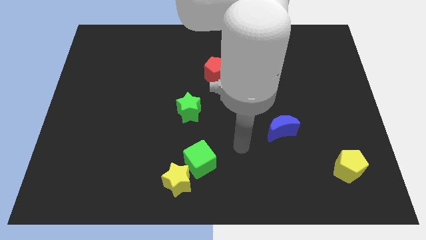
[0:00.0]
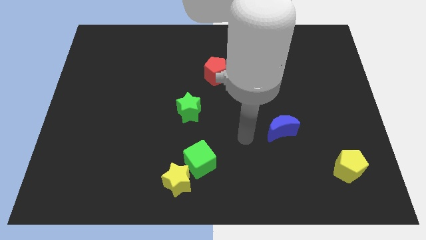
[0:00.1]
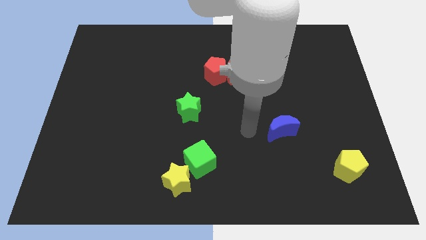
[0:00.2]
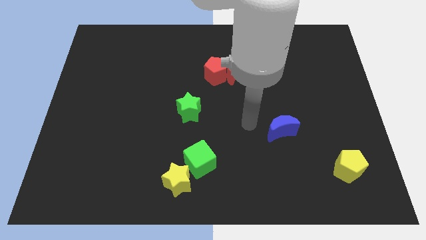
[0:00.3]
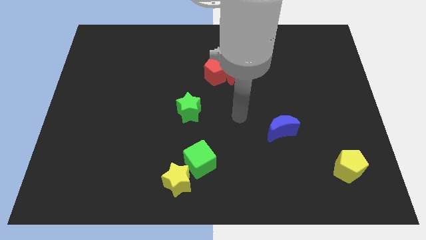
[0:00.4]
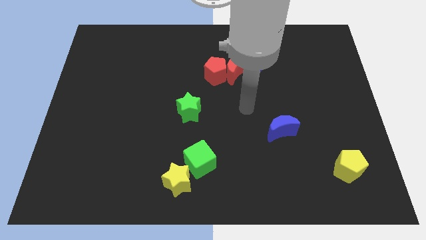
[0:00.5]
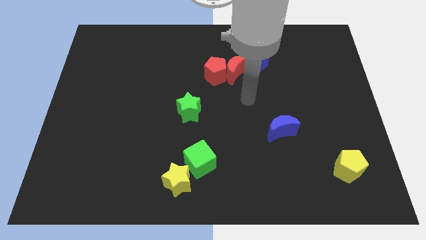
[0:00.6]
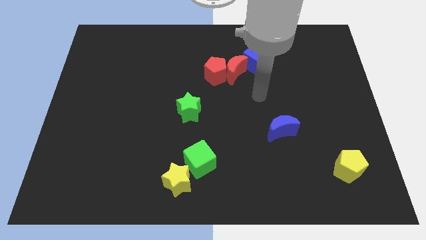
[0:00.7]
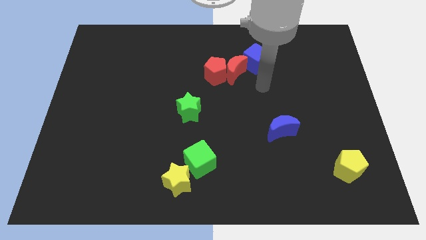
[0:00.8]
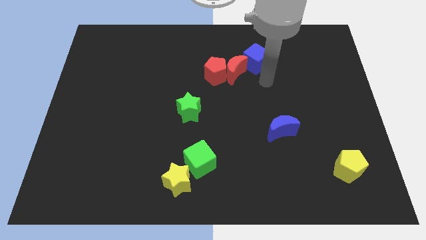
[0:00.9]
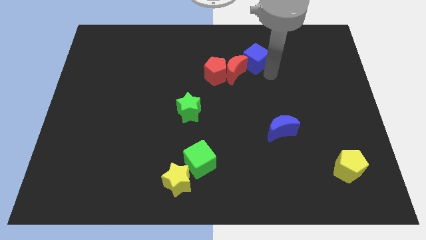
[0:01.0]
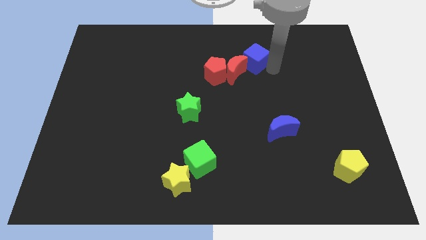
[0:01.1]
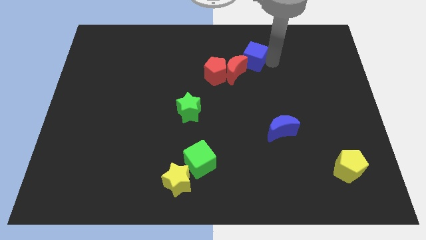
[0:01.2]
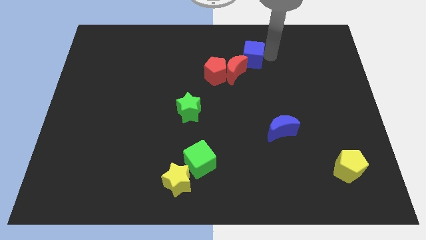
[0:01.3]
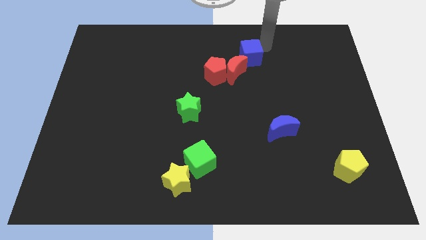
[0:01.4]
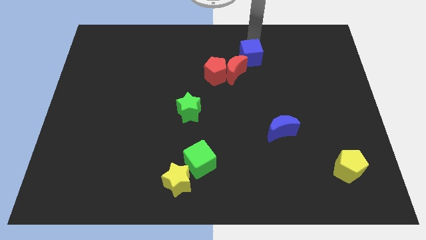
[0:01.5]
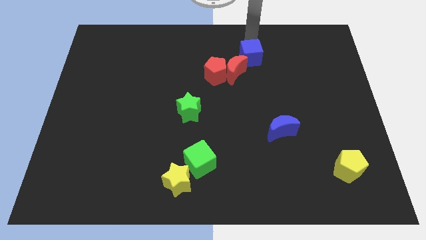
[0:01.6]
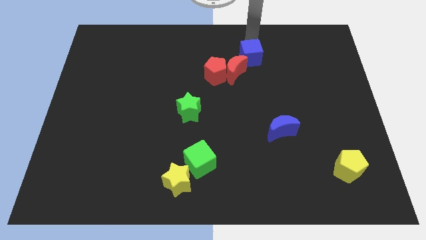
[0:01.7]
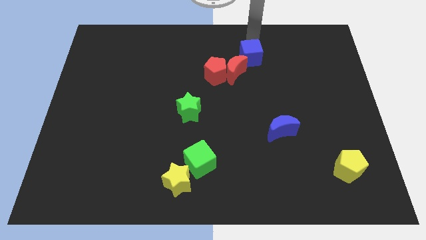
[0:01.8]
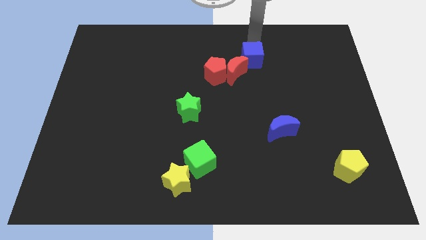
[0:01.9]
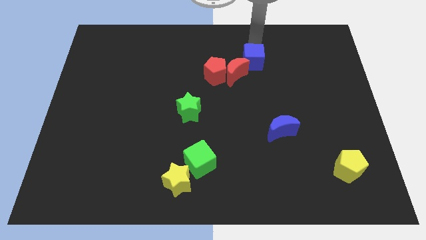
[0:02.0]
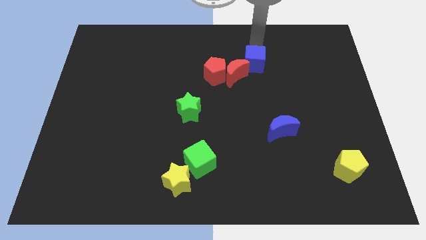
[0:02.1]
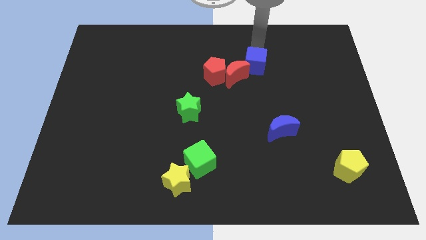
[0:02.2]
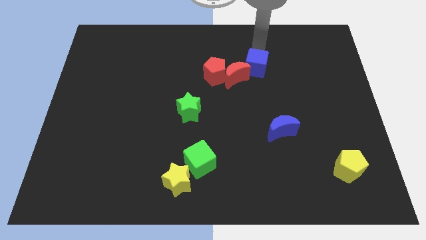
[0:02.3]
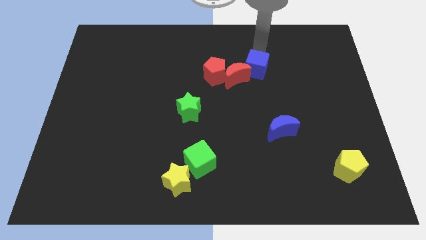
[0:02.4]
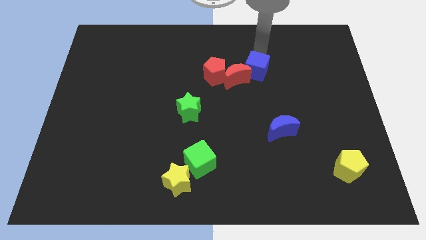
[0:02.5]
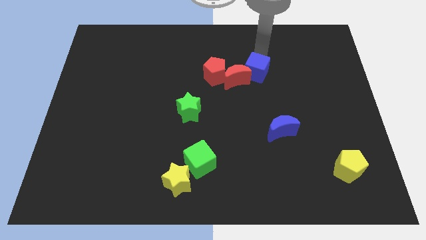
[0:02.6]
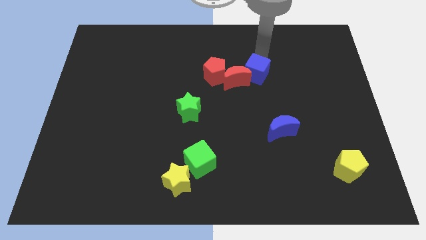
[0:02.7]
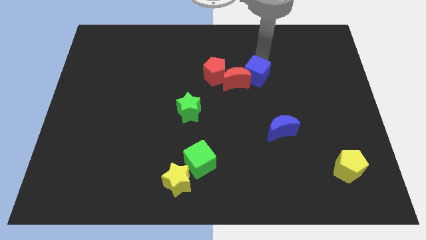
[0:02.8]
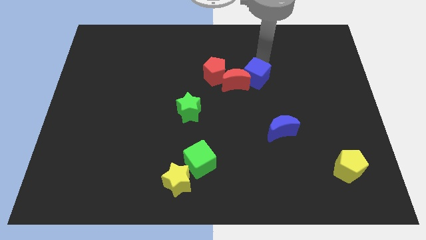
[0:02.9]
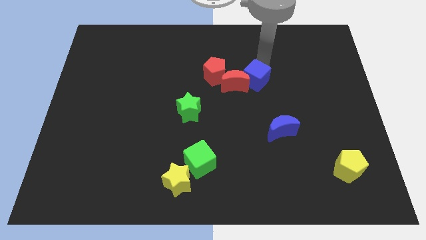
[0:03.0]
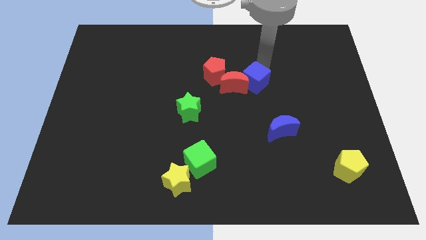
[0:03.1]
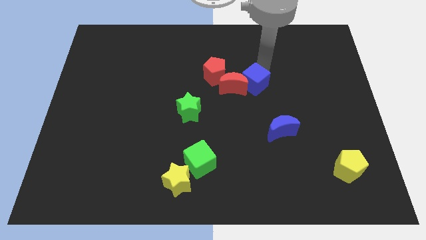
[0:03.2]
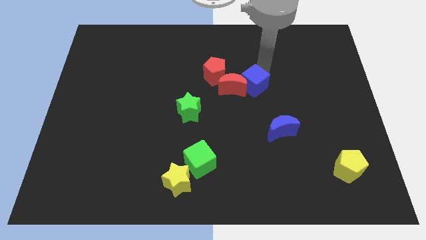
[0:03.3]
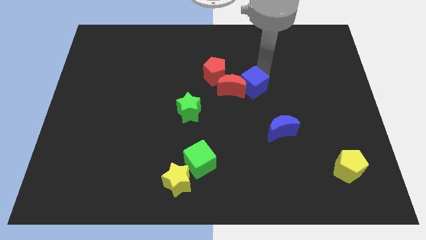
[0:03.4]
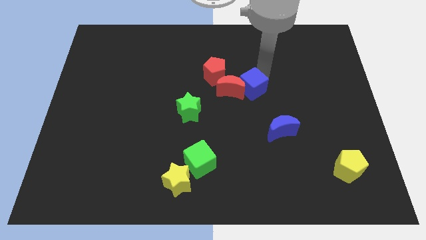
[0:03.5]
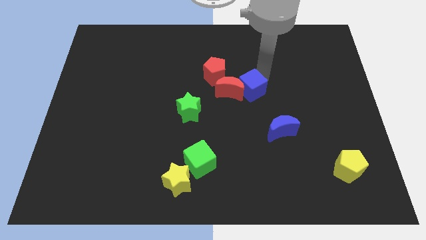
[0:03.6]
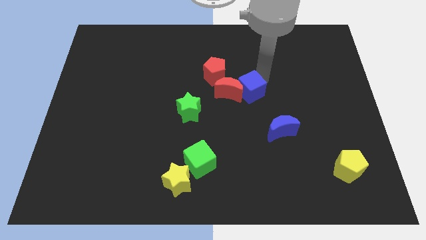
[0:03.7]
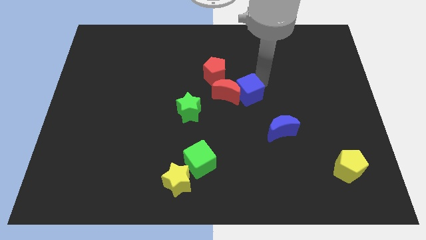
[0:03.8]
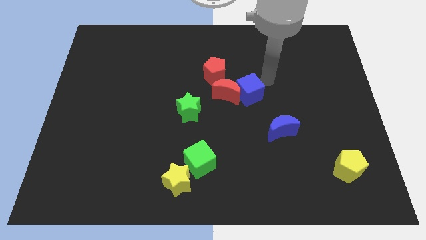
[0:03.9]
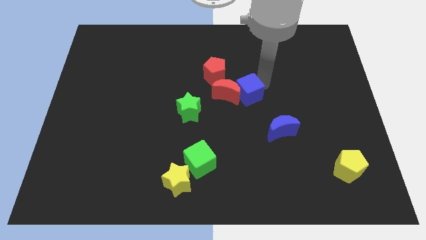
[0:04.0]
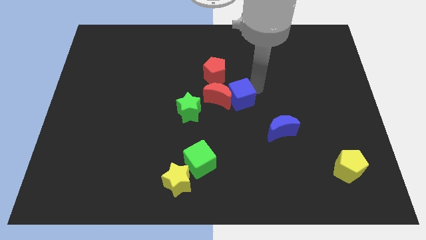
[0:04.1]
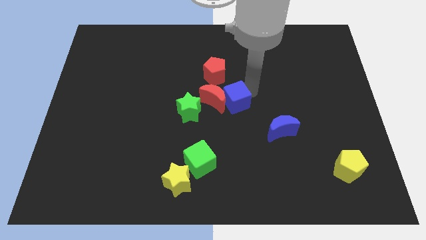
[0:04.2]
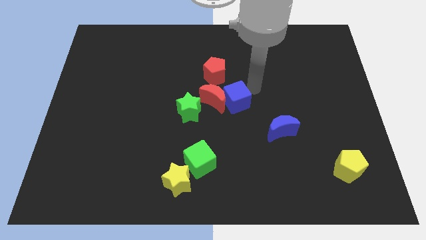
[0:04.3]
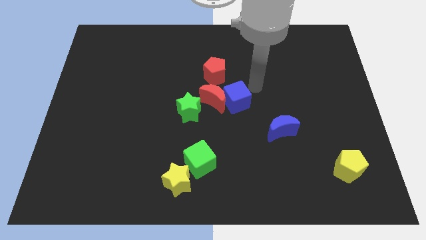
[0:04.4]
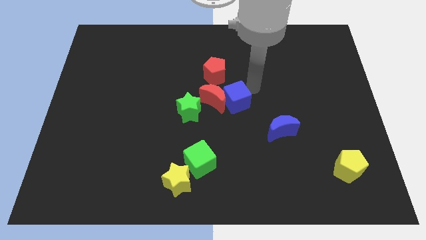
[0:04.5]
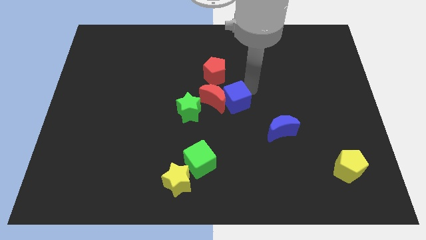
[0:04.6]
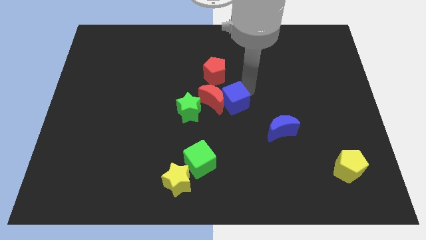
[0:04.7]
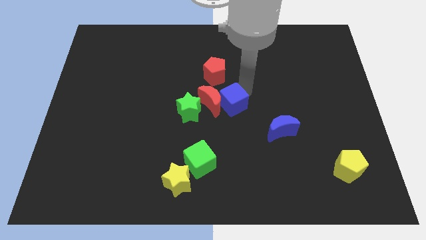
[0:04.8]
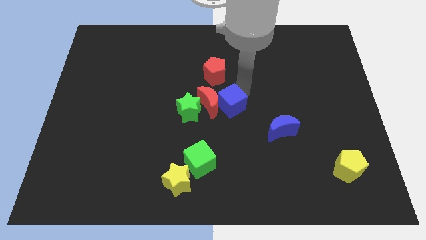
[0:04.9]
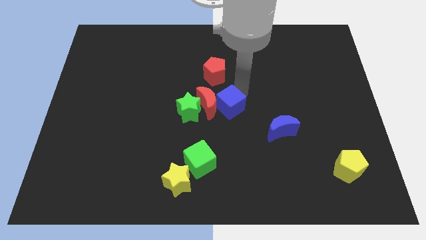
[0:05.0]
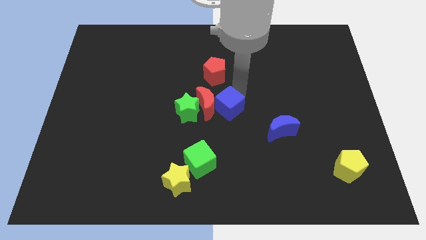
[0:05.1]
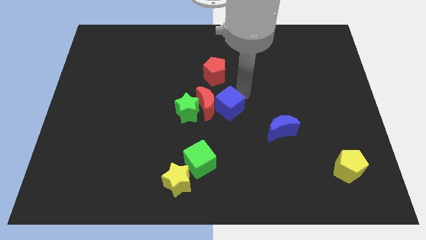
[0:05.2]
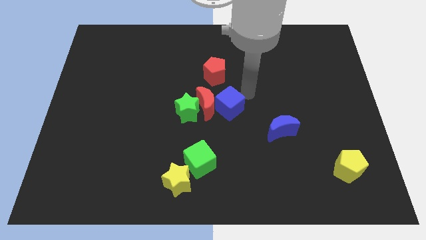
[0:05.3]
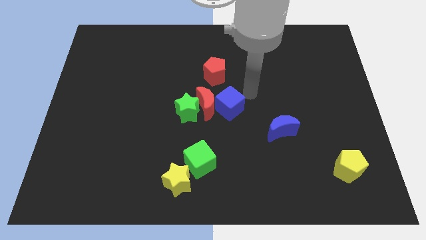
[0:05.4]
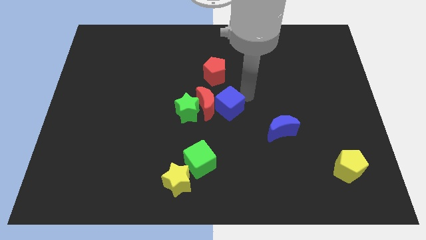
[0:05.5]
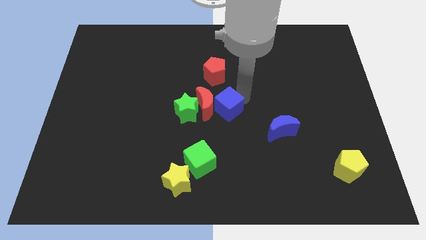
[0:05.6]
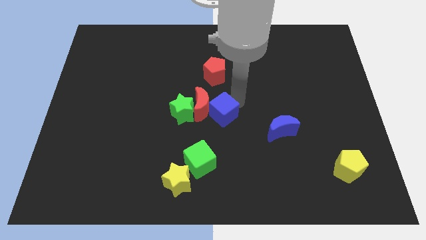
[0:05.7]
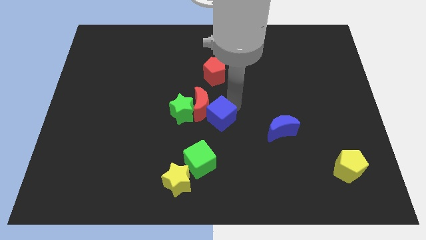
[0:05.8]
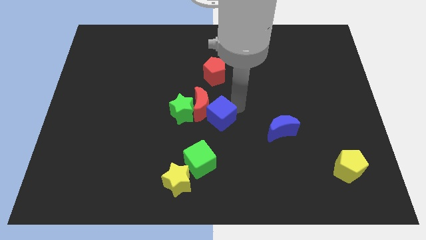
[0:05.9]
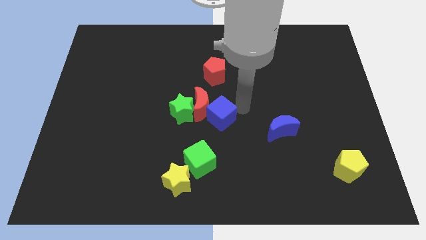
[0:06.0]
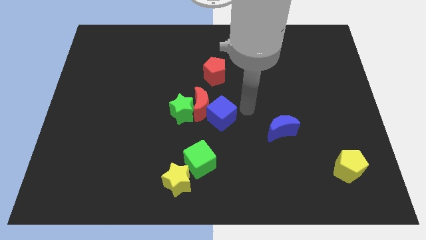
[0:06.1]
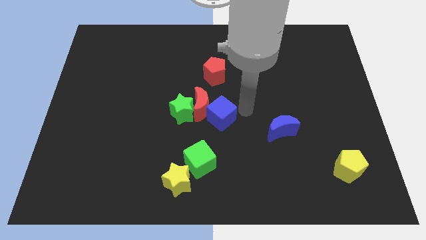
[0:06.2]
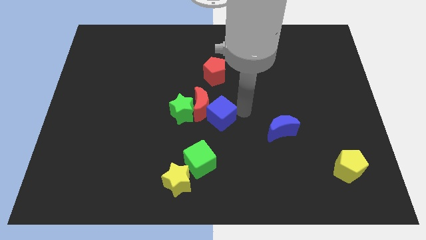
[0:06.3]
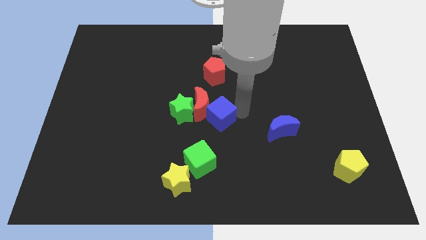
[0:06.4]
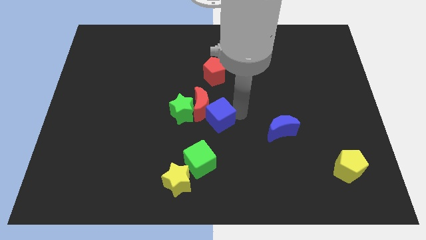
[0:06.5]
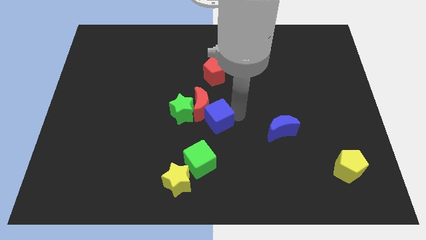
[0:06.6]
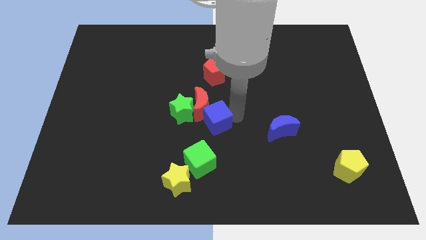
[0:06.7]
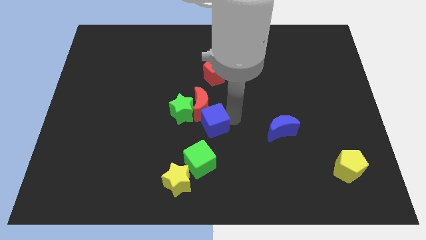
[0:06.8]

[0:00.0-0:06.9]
push the blue cube diagonally down and left

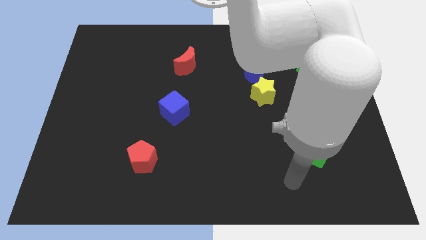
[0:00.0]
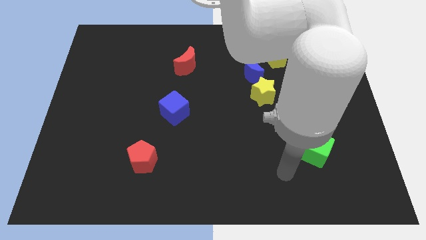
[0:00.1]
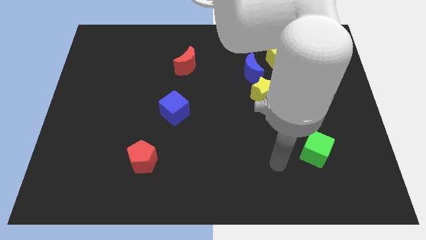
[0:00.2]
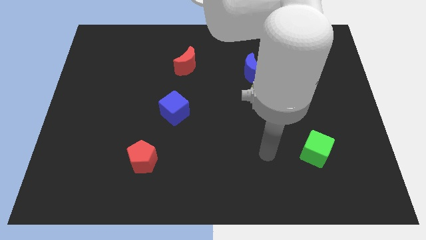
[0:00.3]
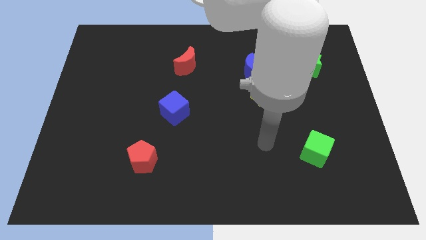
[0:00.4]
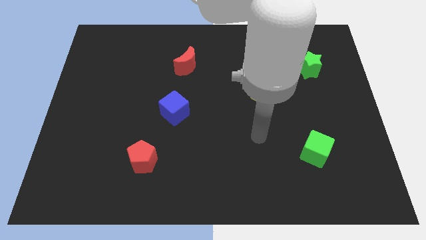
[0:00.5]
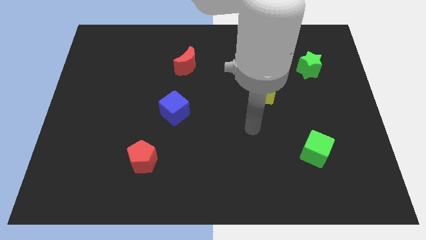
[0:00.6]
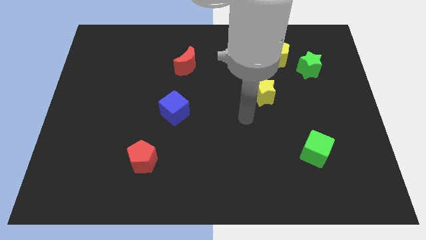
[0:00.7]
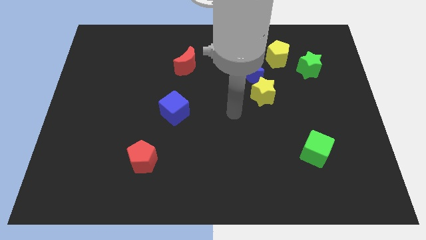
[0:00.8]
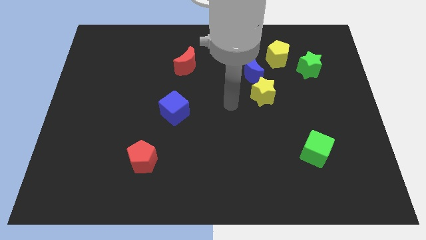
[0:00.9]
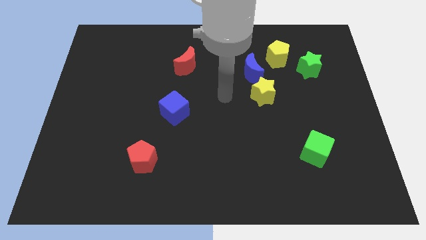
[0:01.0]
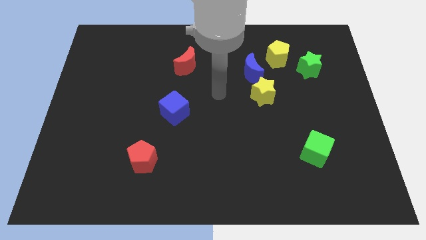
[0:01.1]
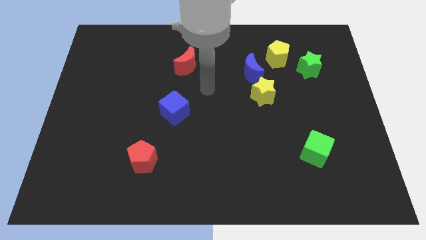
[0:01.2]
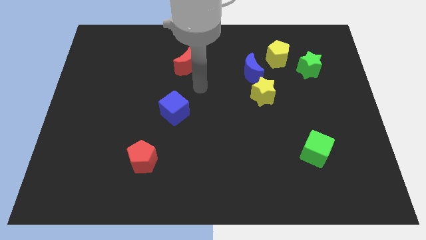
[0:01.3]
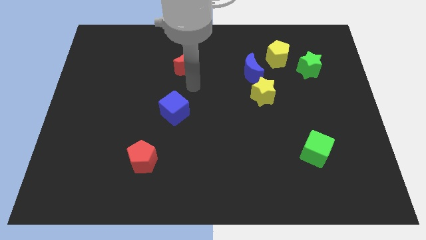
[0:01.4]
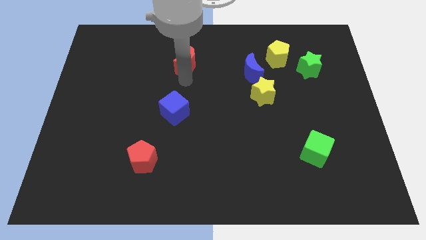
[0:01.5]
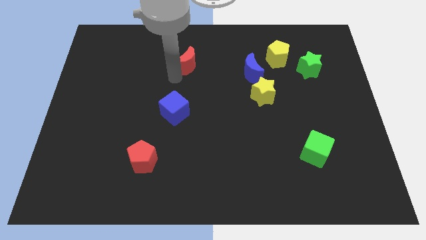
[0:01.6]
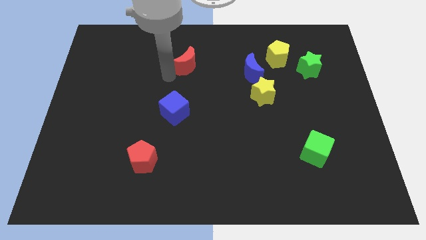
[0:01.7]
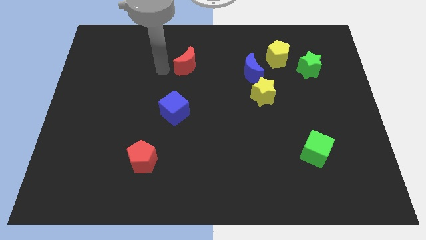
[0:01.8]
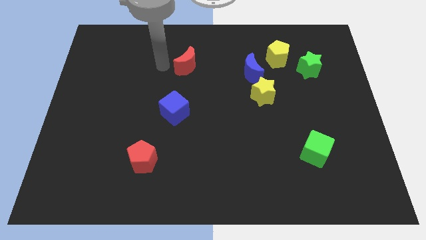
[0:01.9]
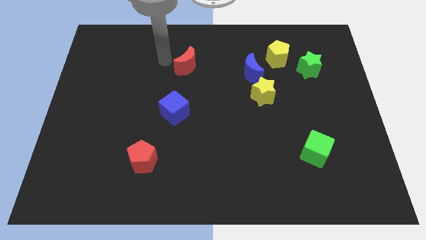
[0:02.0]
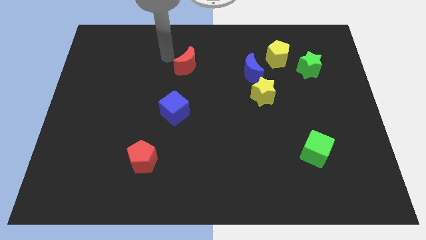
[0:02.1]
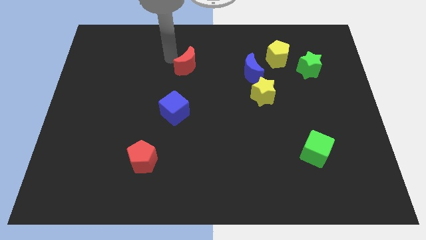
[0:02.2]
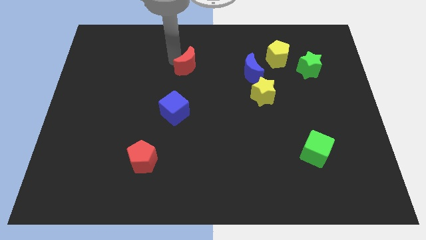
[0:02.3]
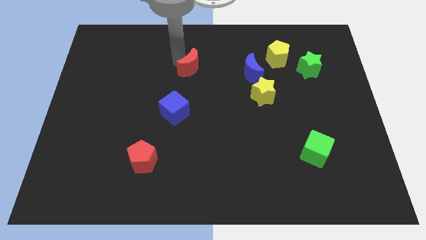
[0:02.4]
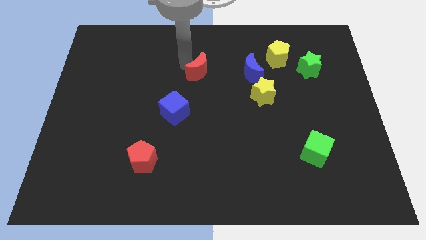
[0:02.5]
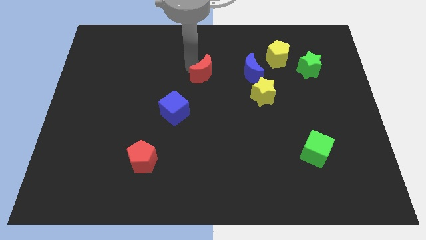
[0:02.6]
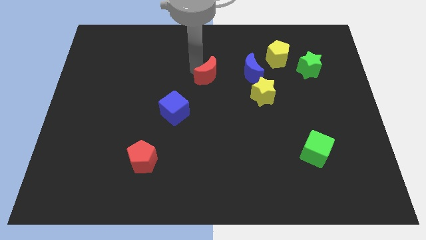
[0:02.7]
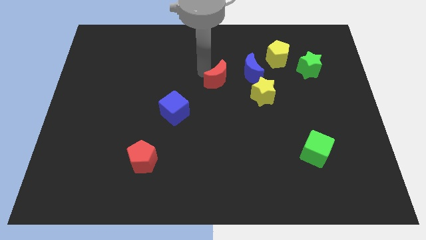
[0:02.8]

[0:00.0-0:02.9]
slightly push the red moon down and right
